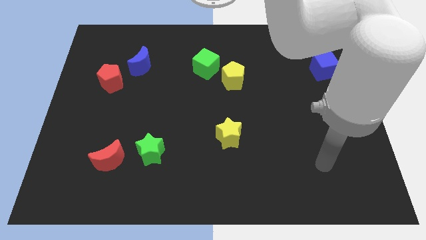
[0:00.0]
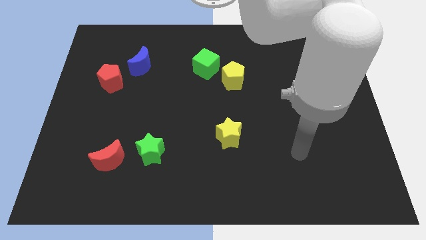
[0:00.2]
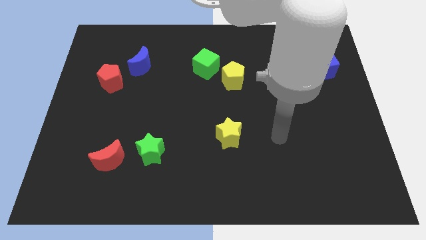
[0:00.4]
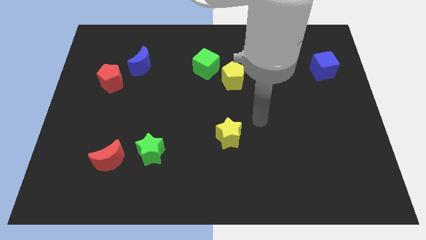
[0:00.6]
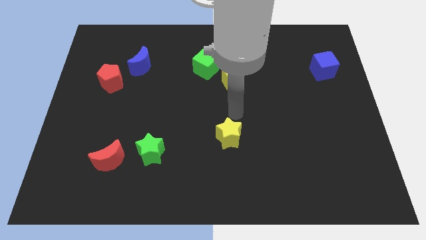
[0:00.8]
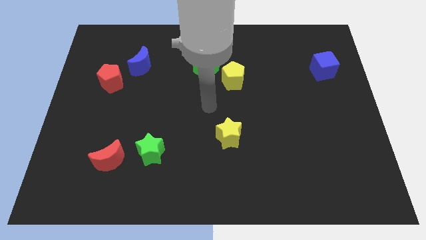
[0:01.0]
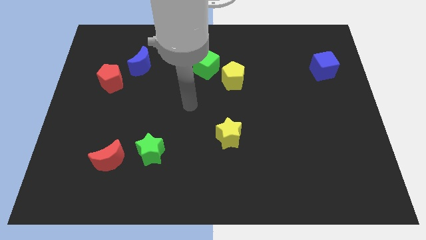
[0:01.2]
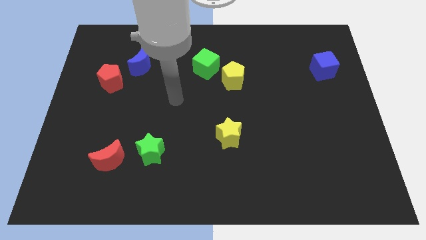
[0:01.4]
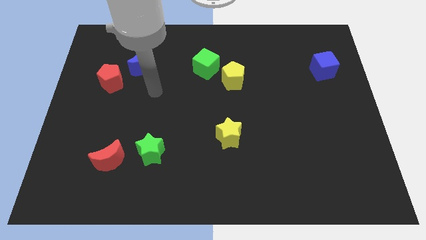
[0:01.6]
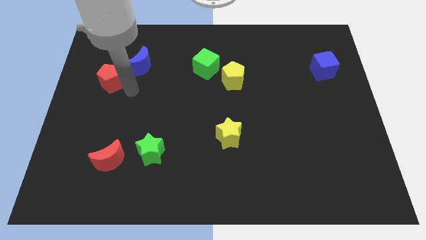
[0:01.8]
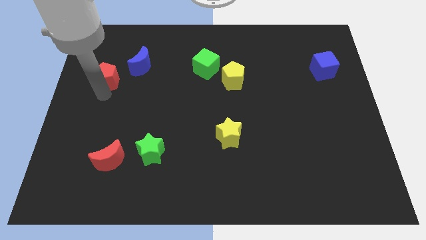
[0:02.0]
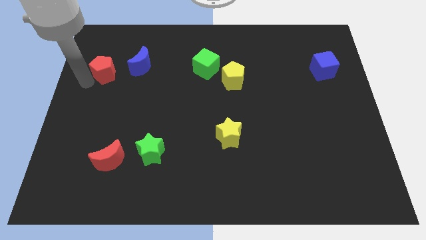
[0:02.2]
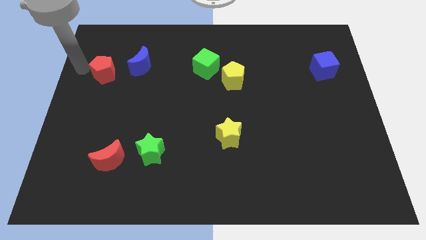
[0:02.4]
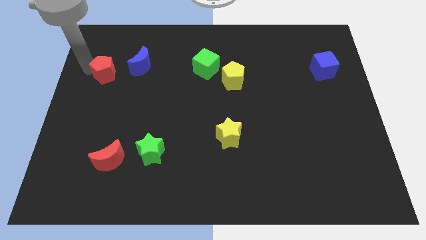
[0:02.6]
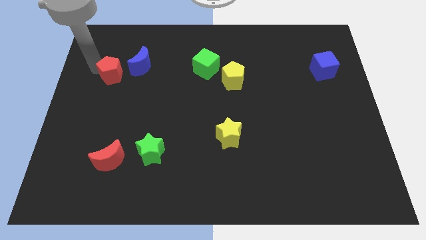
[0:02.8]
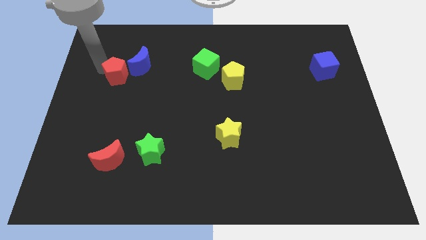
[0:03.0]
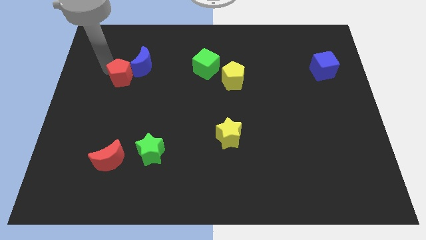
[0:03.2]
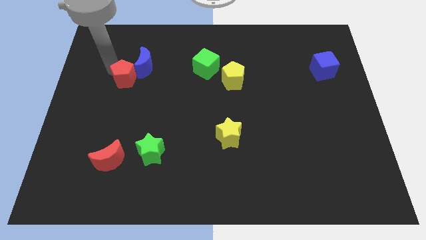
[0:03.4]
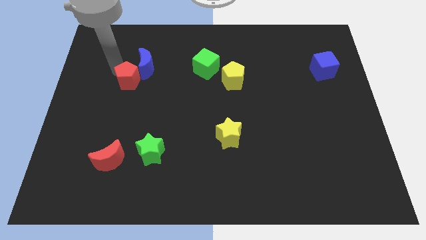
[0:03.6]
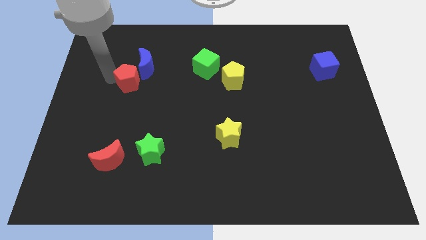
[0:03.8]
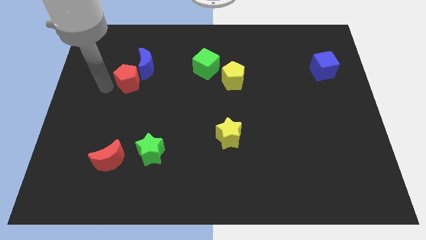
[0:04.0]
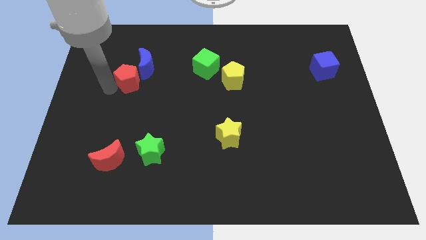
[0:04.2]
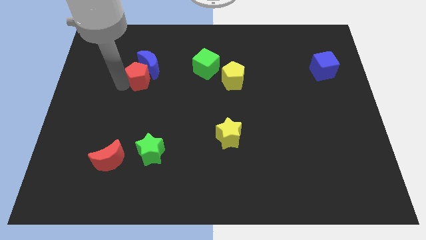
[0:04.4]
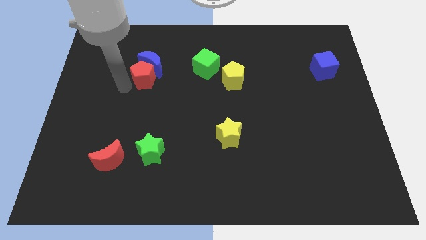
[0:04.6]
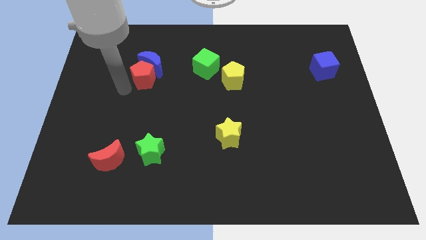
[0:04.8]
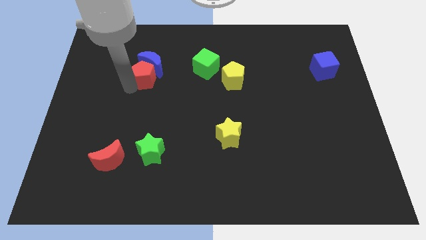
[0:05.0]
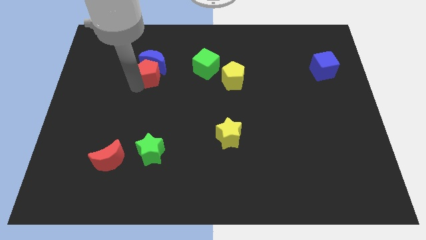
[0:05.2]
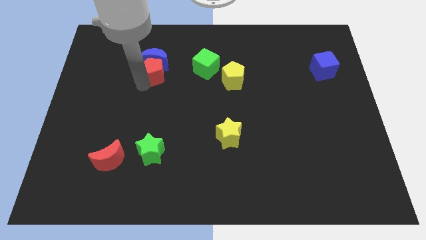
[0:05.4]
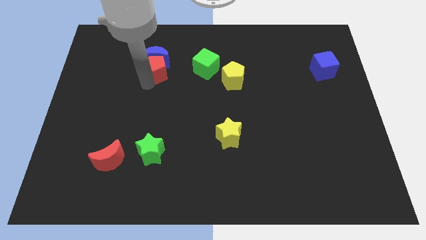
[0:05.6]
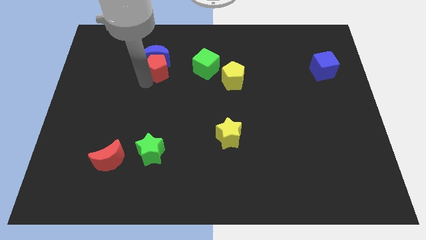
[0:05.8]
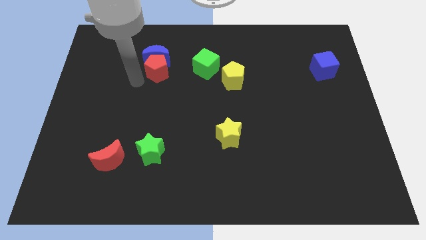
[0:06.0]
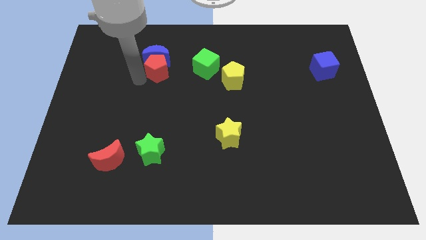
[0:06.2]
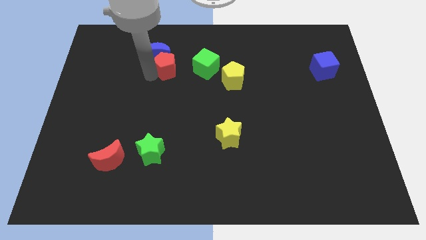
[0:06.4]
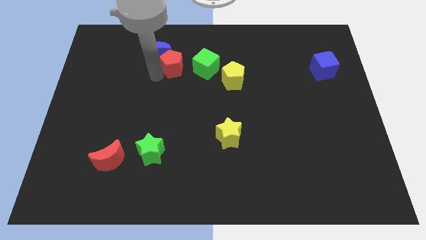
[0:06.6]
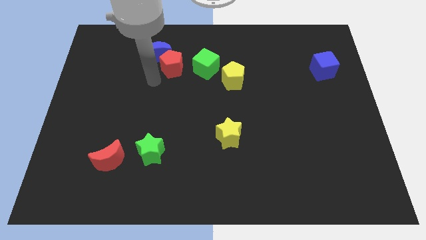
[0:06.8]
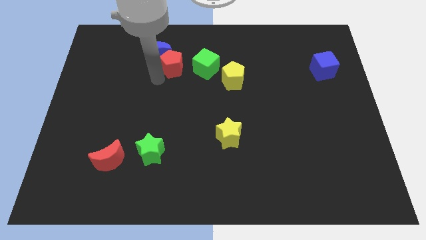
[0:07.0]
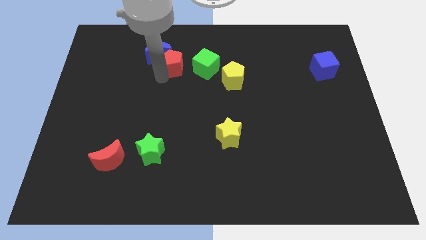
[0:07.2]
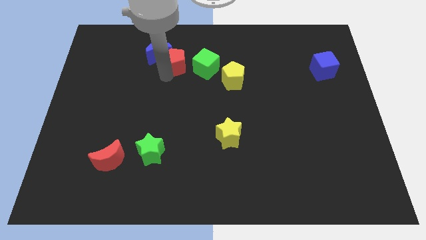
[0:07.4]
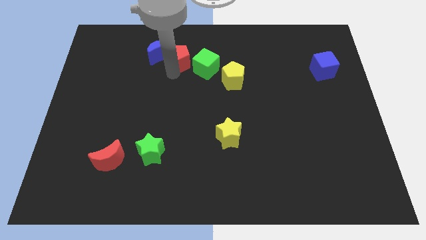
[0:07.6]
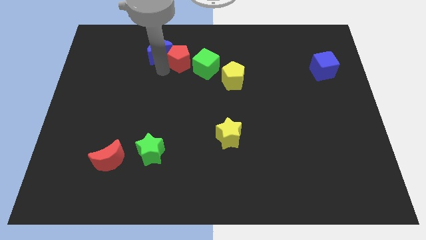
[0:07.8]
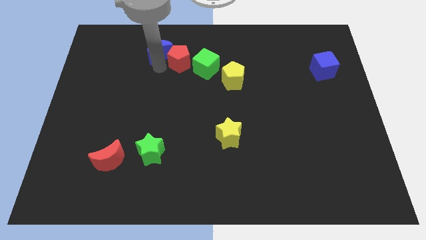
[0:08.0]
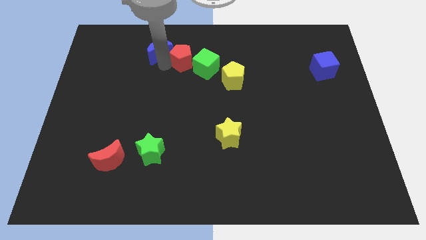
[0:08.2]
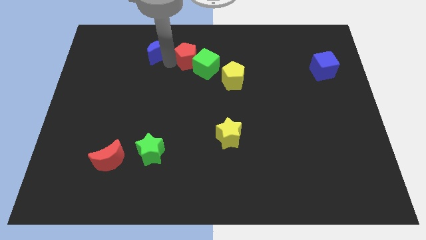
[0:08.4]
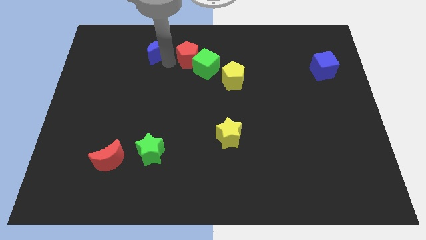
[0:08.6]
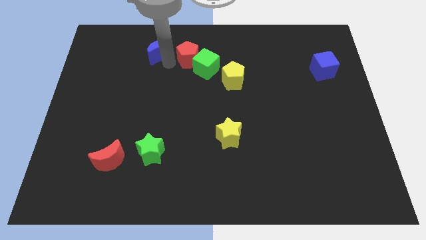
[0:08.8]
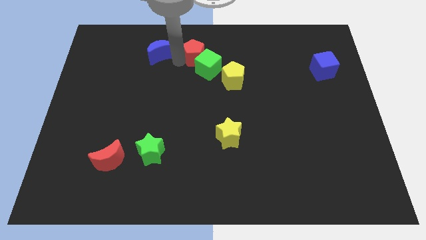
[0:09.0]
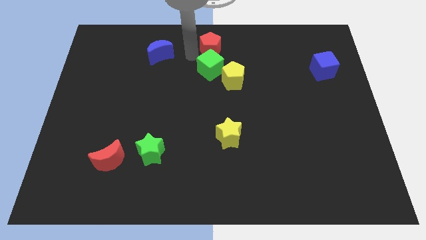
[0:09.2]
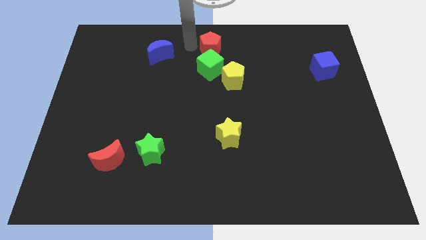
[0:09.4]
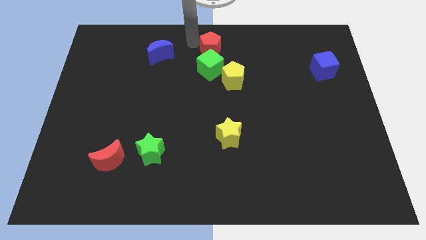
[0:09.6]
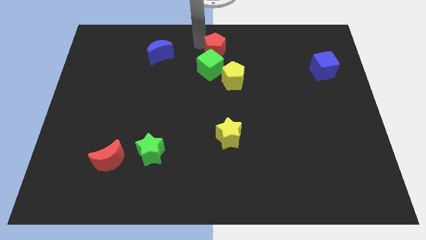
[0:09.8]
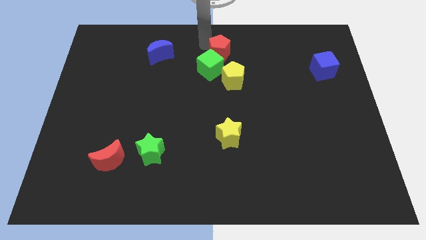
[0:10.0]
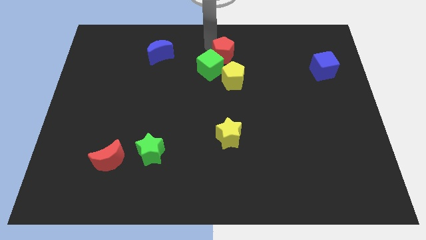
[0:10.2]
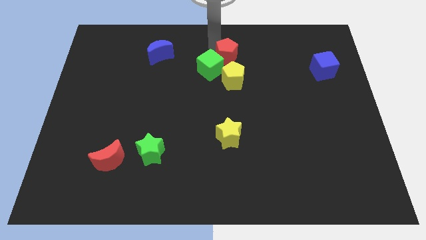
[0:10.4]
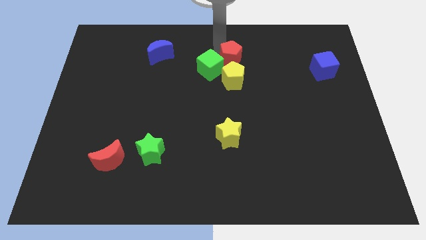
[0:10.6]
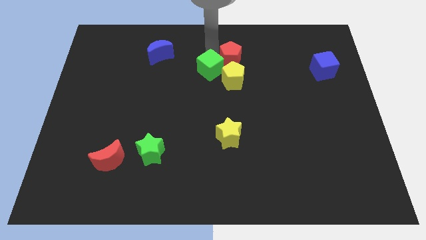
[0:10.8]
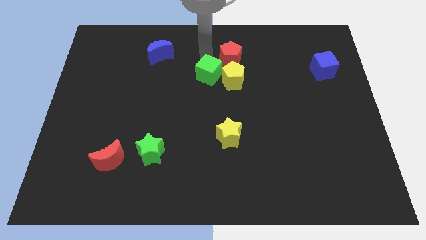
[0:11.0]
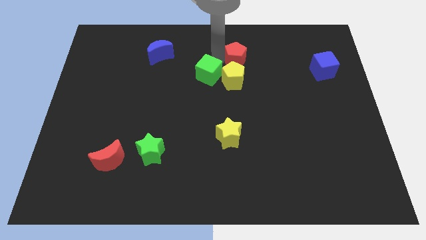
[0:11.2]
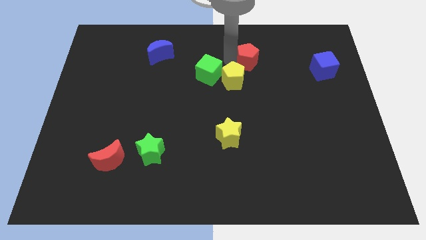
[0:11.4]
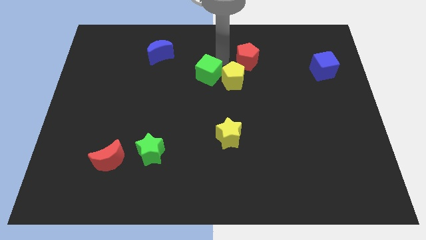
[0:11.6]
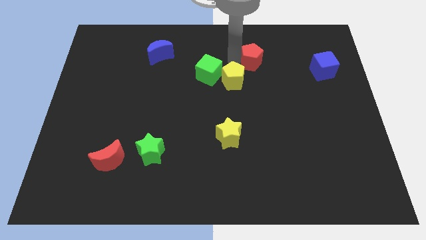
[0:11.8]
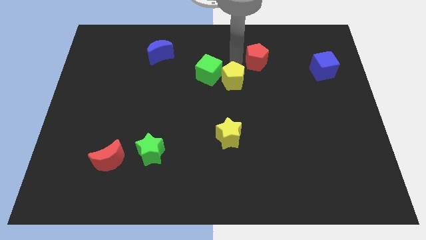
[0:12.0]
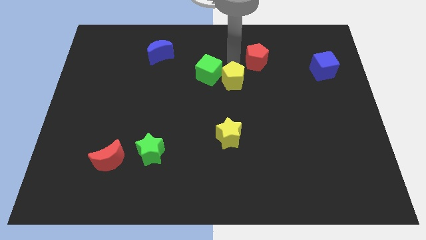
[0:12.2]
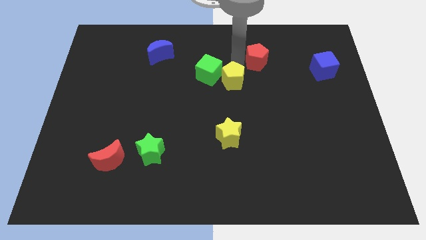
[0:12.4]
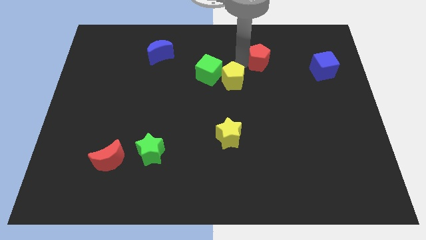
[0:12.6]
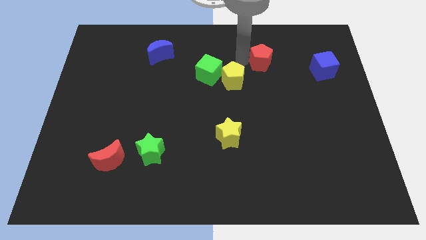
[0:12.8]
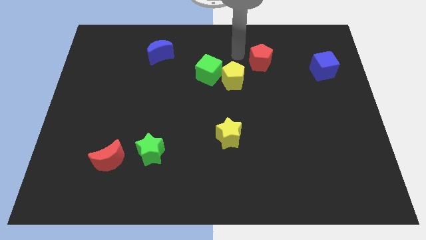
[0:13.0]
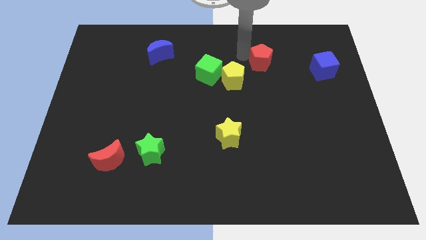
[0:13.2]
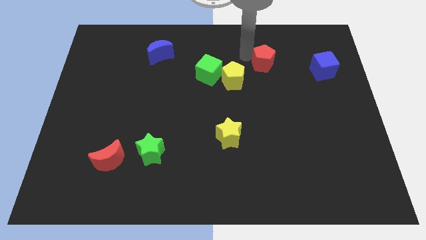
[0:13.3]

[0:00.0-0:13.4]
push the red pentagon just left of the blue cube

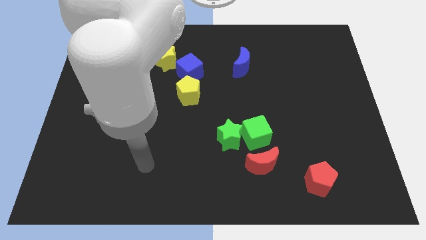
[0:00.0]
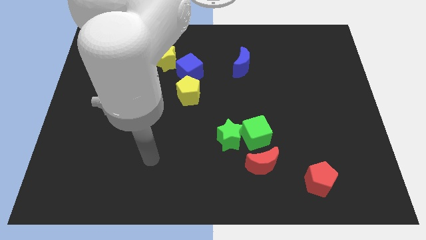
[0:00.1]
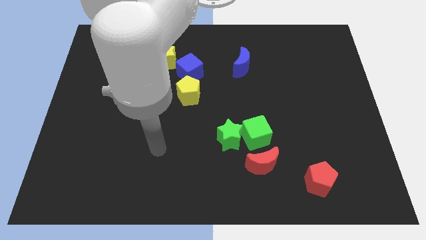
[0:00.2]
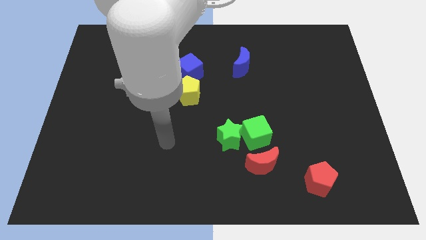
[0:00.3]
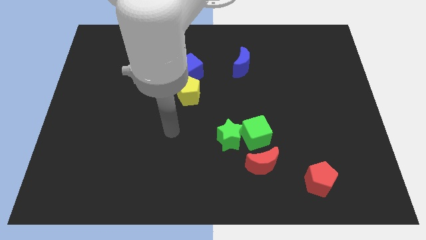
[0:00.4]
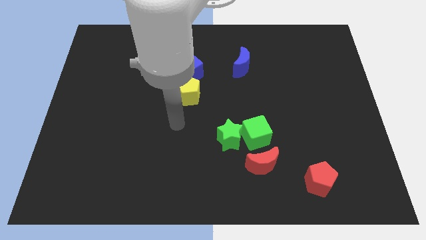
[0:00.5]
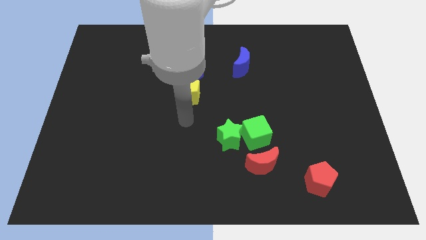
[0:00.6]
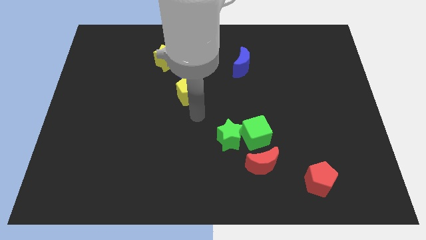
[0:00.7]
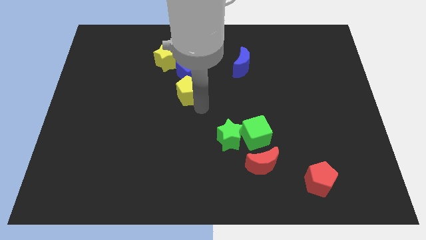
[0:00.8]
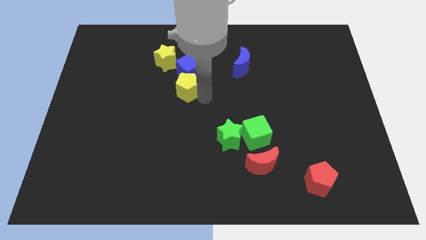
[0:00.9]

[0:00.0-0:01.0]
put the blue cube diagonally up and to the left of the yellow pentagon
